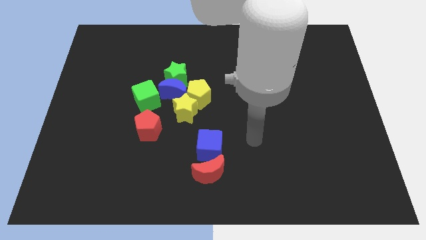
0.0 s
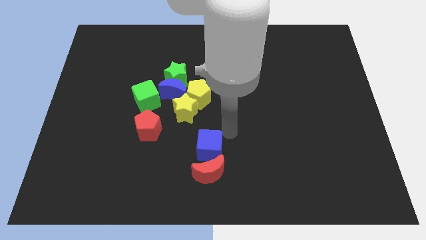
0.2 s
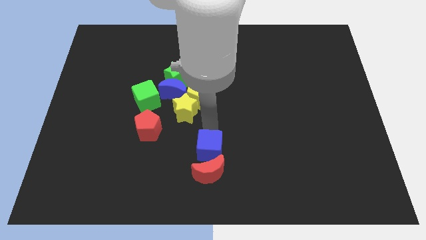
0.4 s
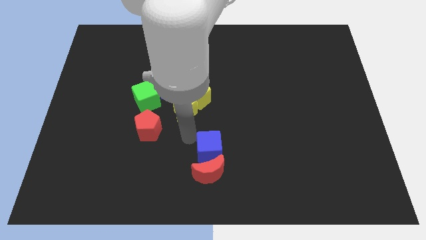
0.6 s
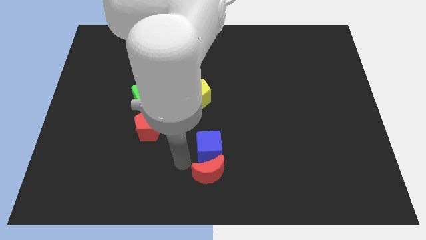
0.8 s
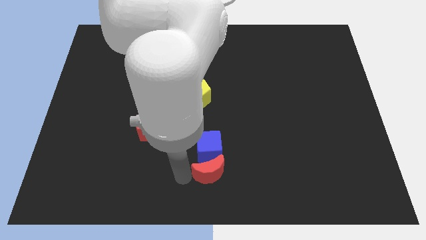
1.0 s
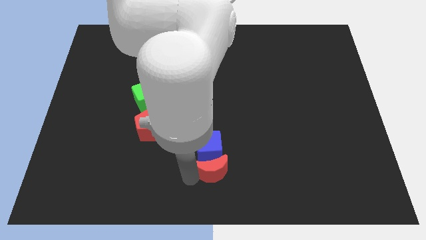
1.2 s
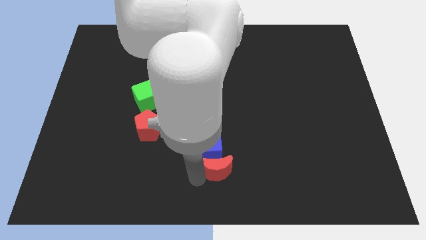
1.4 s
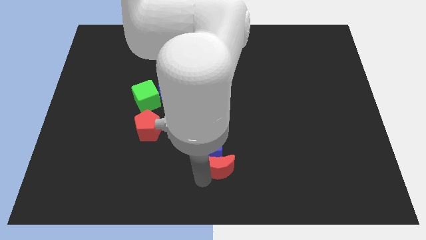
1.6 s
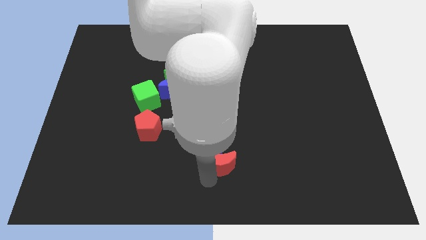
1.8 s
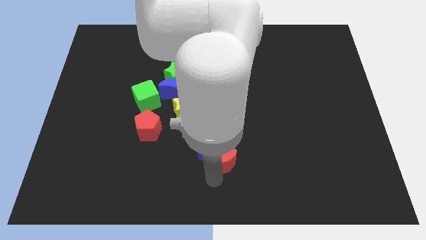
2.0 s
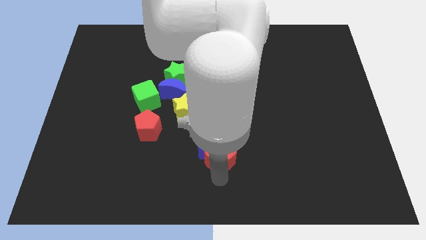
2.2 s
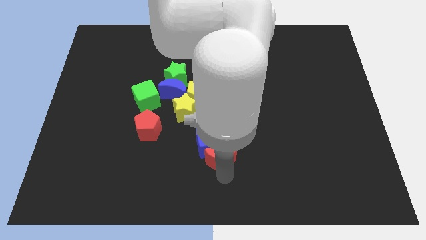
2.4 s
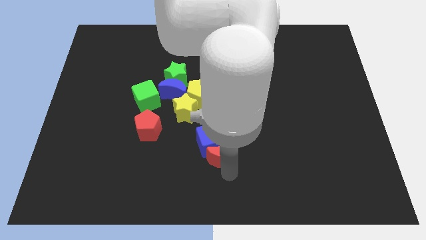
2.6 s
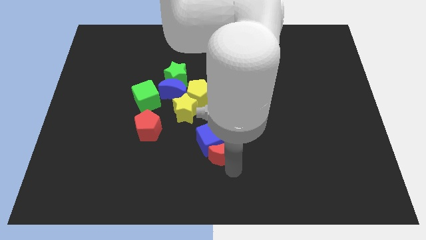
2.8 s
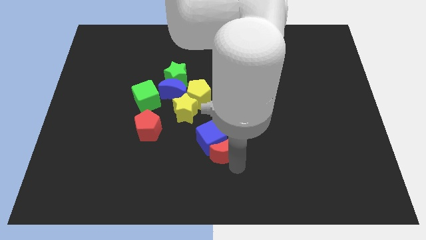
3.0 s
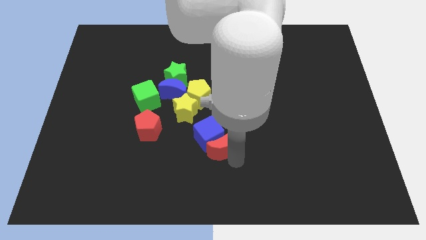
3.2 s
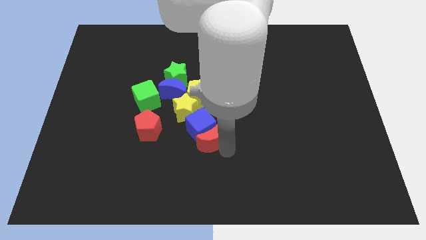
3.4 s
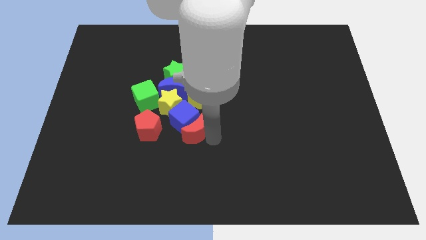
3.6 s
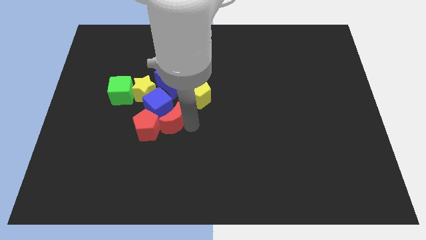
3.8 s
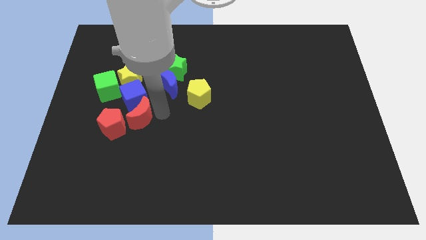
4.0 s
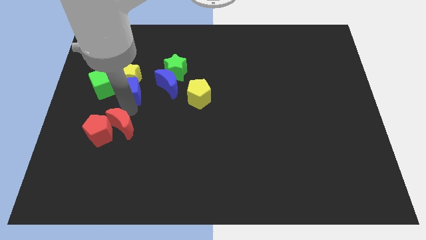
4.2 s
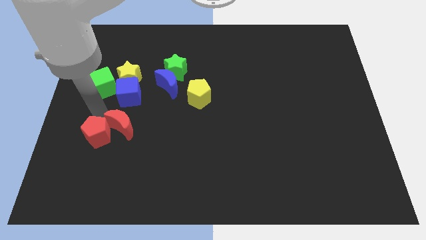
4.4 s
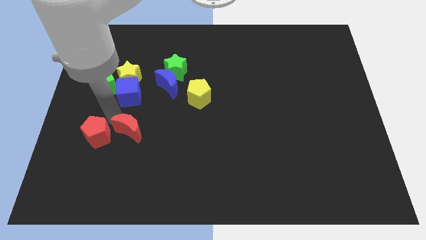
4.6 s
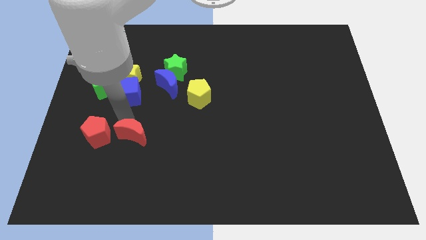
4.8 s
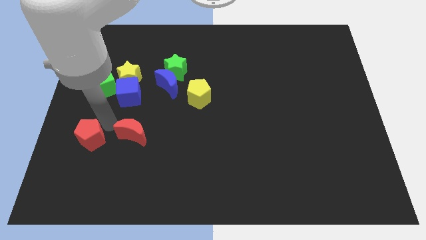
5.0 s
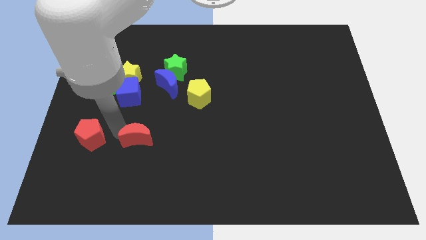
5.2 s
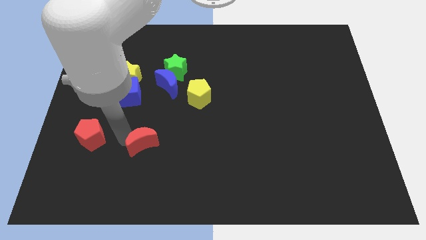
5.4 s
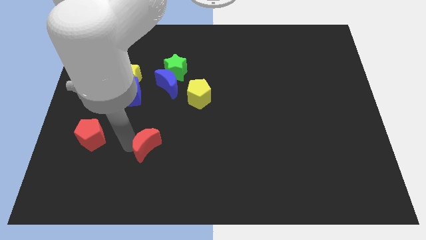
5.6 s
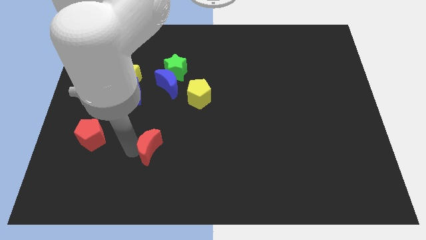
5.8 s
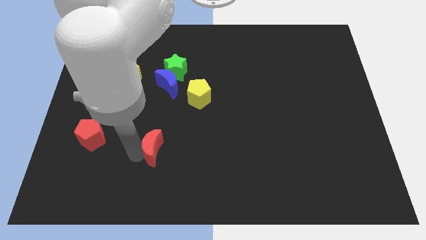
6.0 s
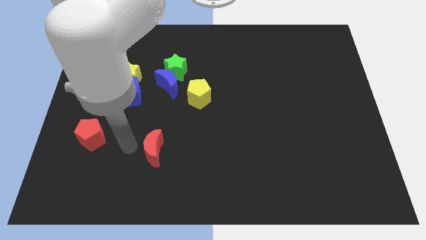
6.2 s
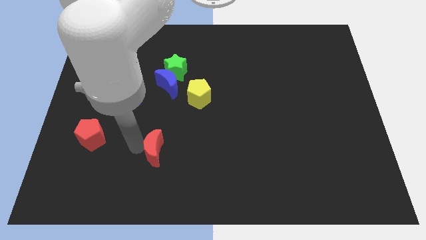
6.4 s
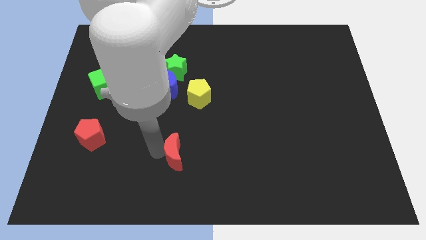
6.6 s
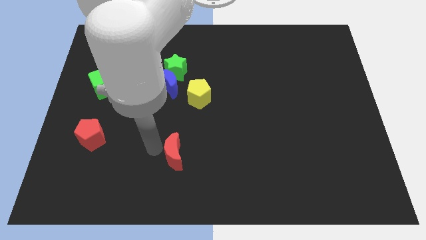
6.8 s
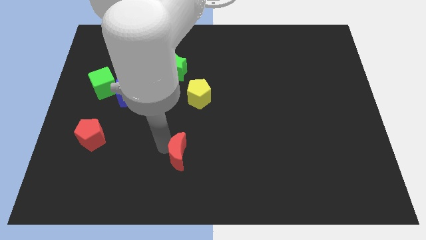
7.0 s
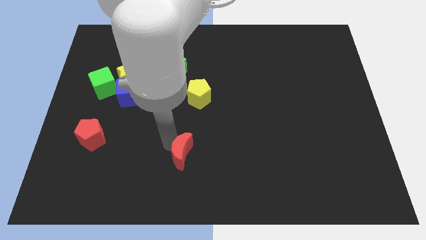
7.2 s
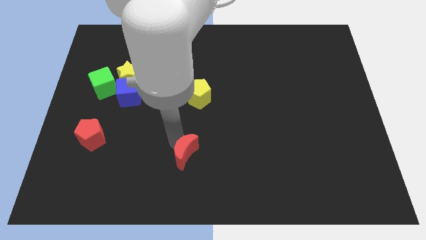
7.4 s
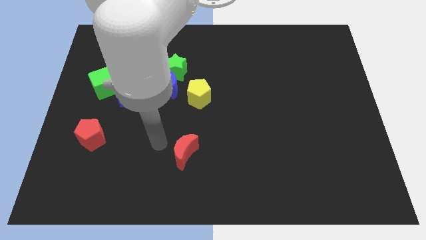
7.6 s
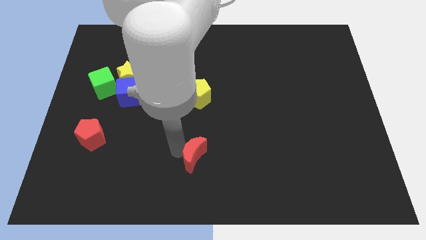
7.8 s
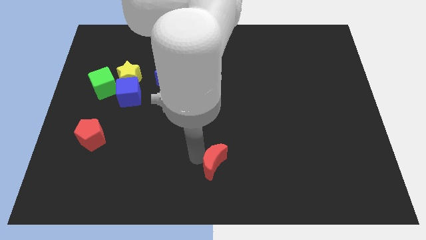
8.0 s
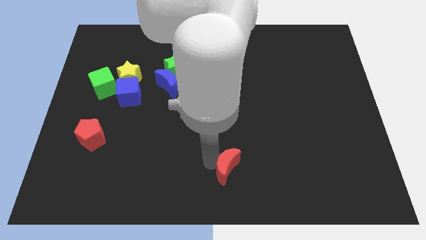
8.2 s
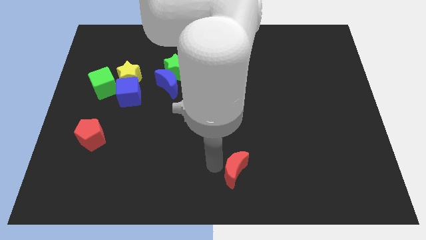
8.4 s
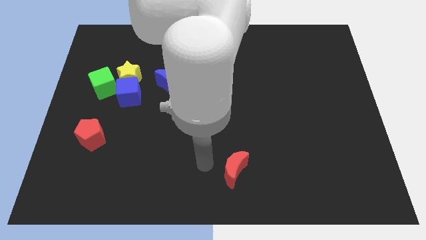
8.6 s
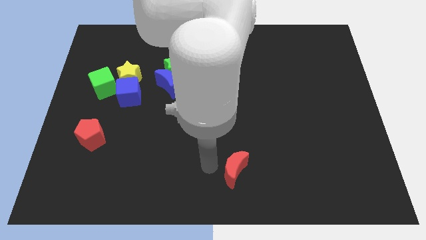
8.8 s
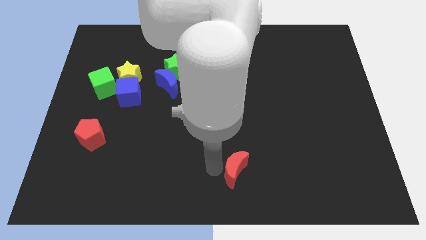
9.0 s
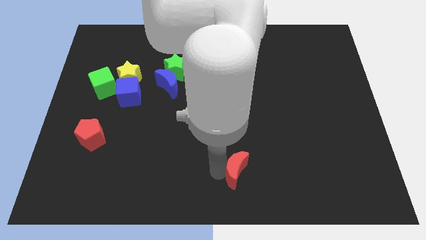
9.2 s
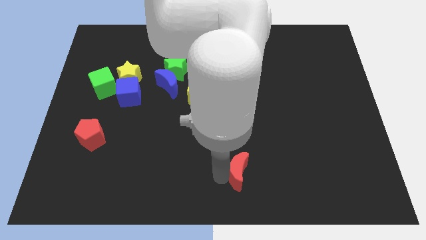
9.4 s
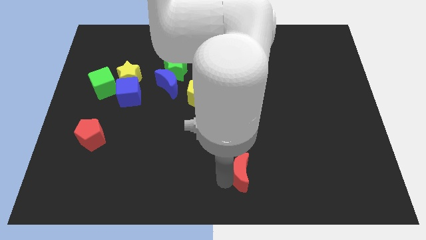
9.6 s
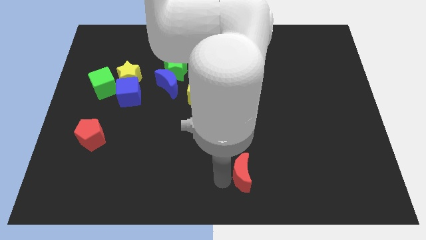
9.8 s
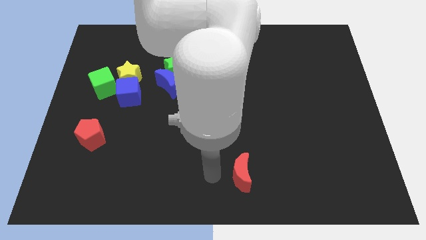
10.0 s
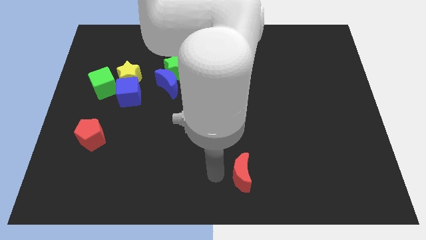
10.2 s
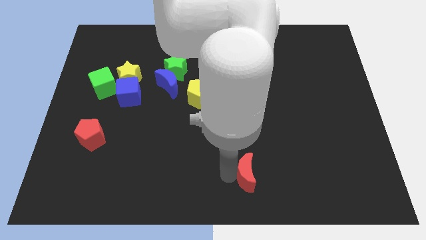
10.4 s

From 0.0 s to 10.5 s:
slightly move the red moon to the right

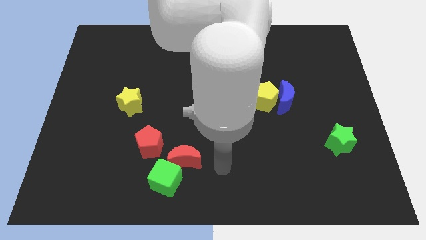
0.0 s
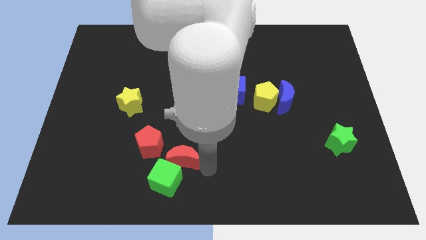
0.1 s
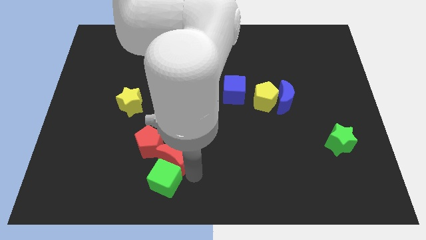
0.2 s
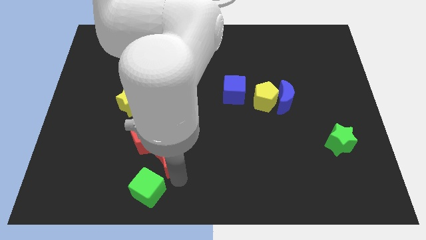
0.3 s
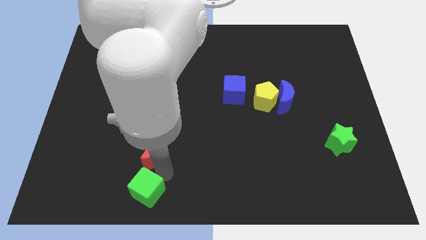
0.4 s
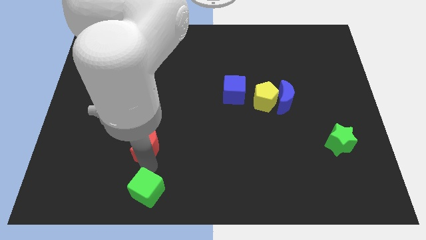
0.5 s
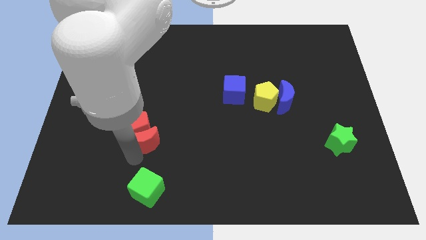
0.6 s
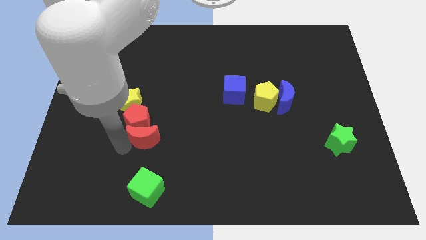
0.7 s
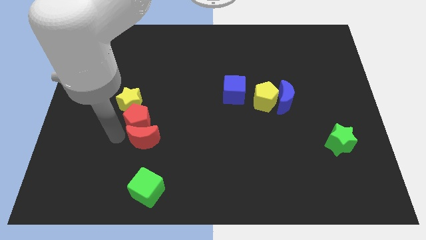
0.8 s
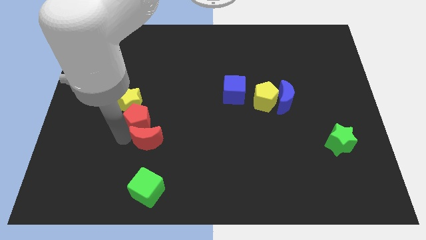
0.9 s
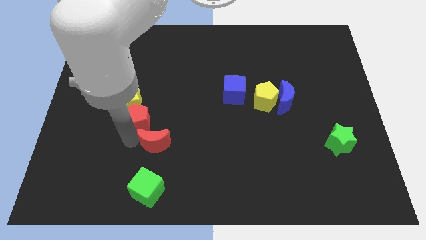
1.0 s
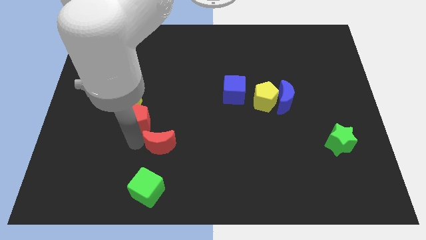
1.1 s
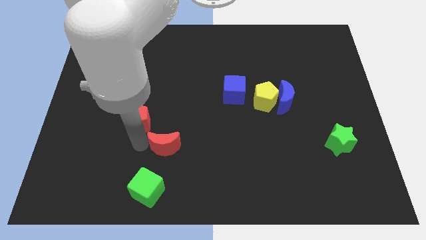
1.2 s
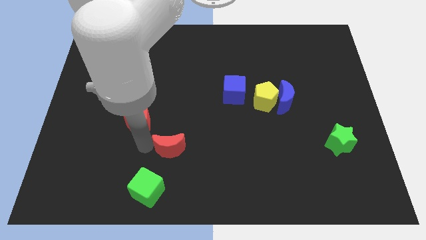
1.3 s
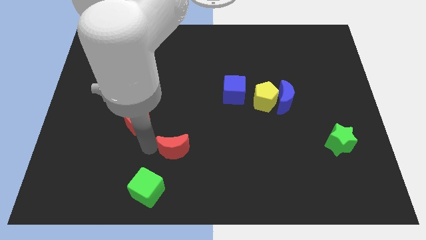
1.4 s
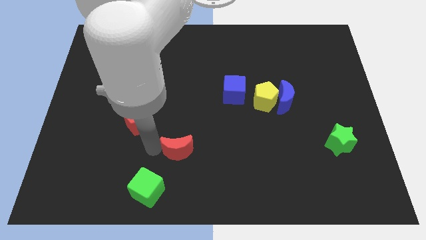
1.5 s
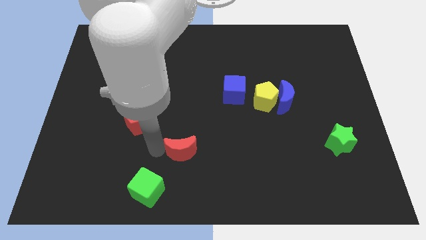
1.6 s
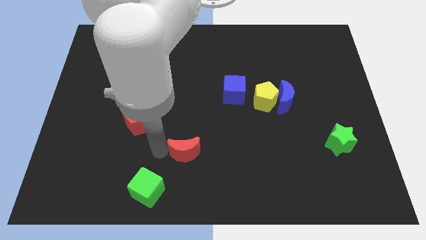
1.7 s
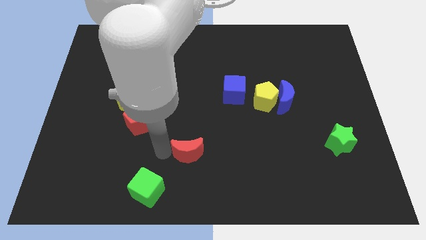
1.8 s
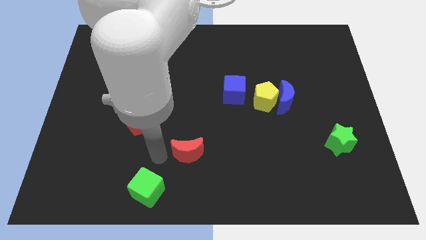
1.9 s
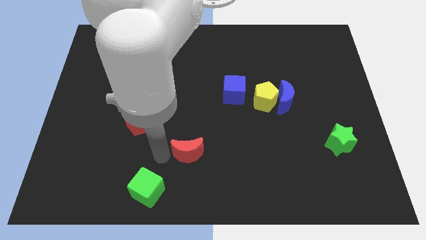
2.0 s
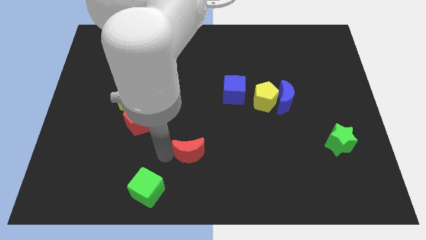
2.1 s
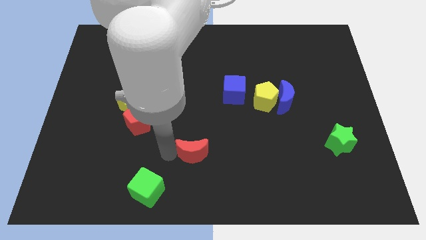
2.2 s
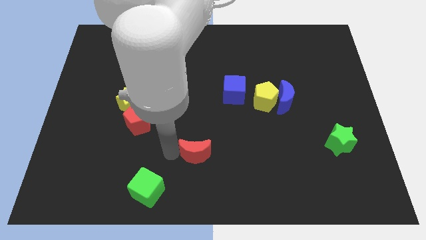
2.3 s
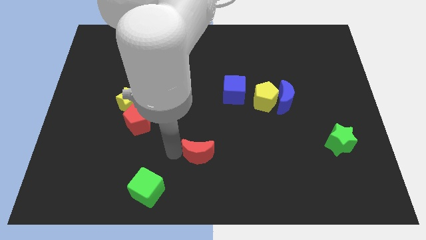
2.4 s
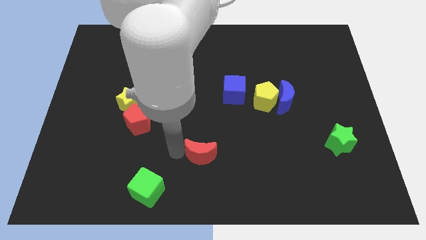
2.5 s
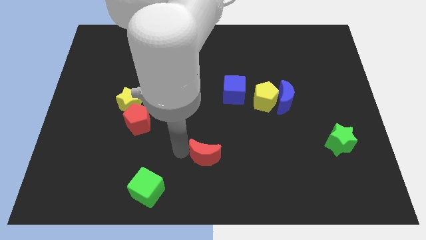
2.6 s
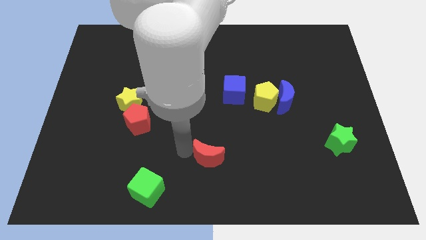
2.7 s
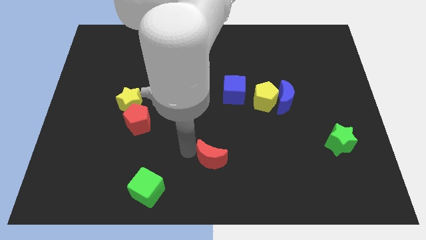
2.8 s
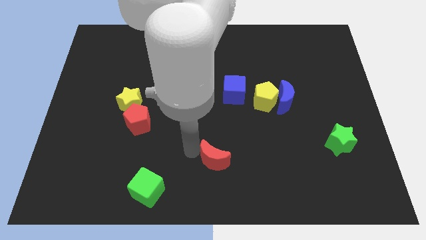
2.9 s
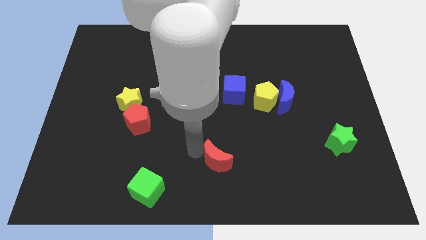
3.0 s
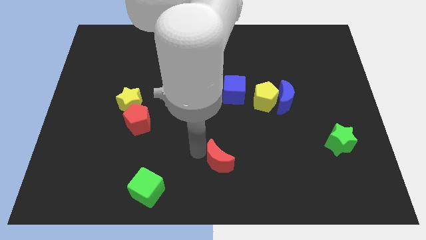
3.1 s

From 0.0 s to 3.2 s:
slightly push the red moon right
